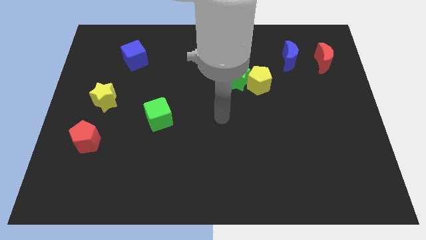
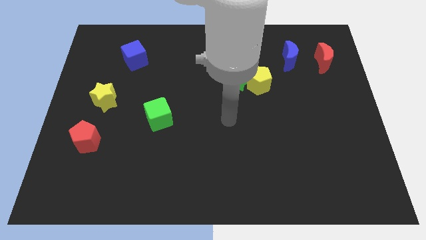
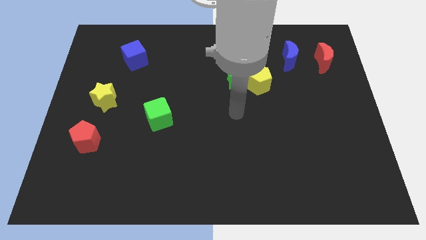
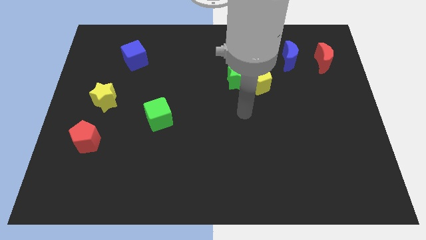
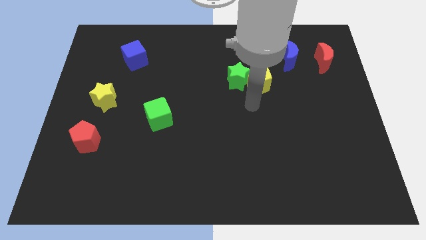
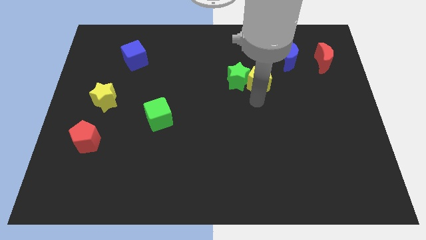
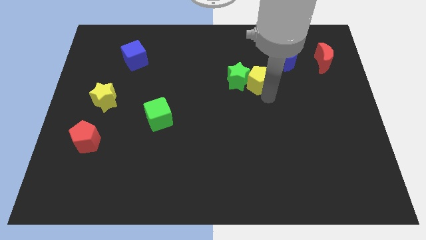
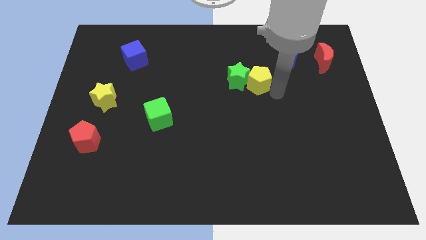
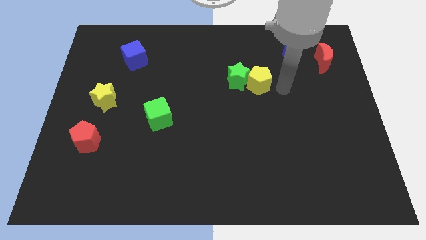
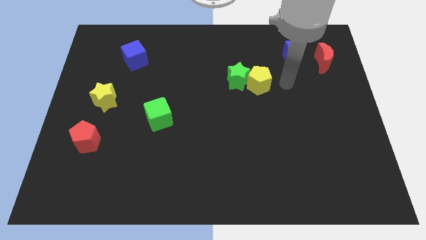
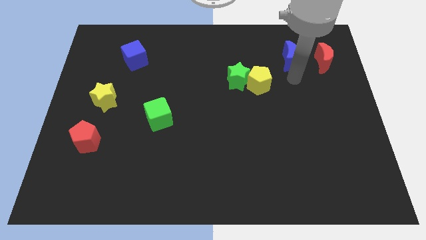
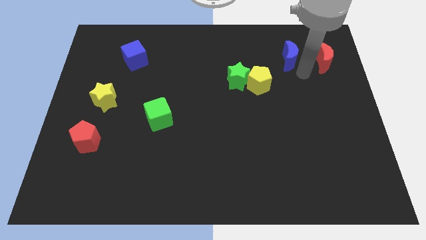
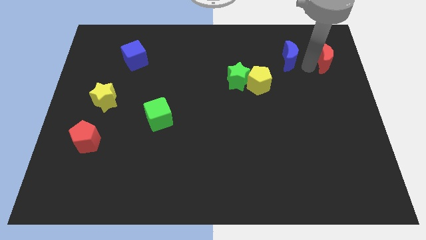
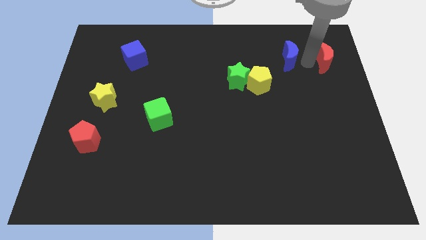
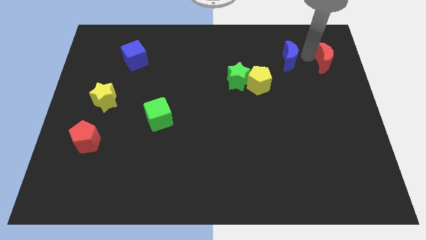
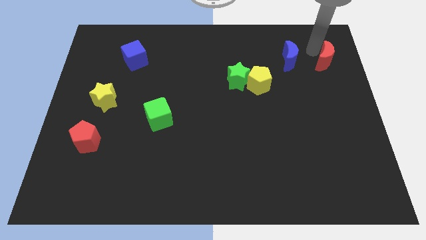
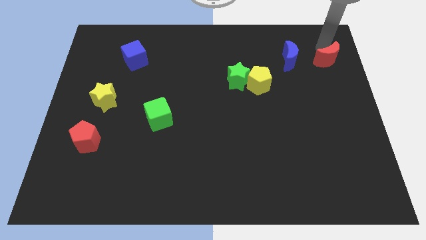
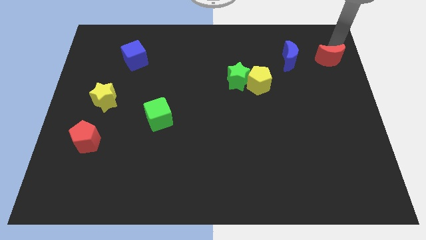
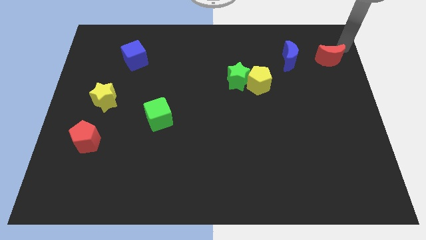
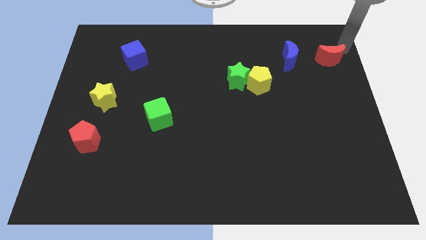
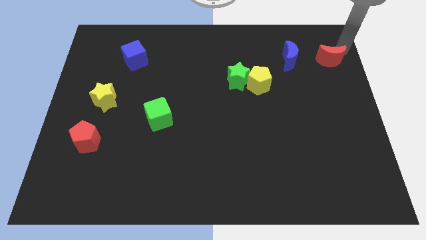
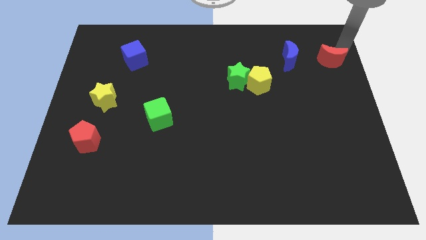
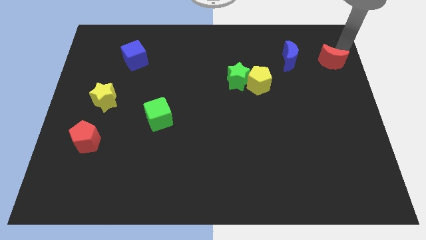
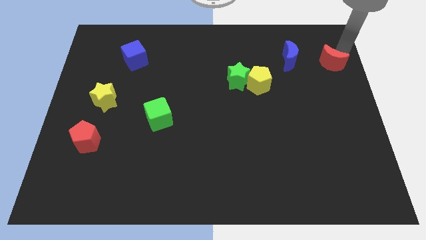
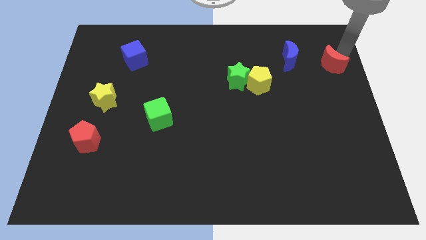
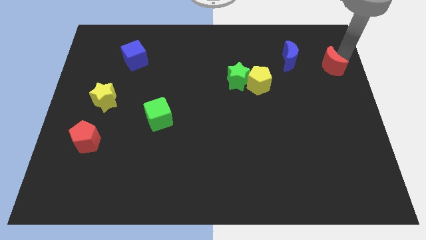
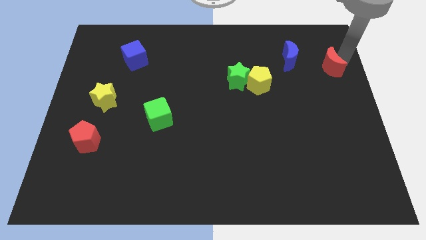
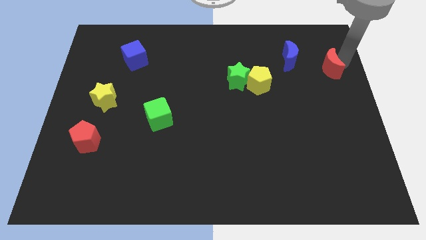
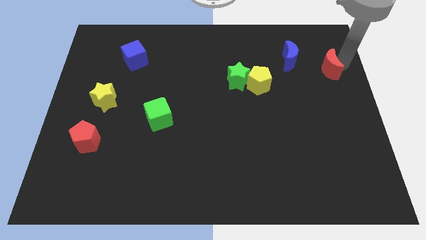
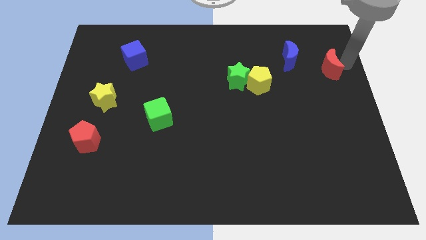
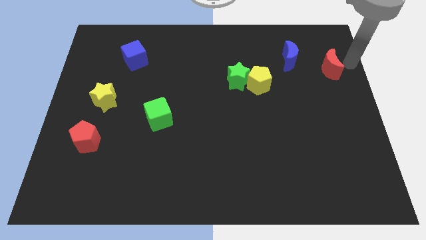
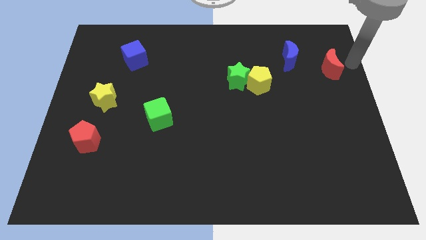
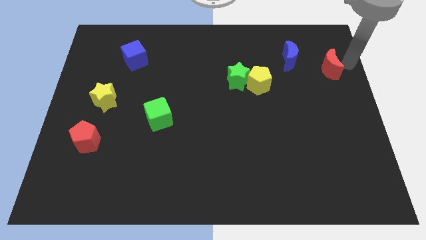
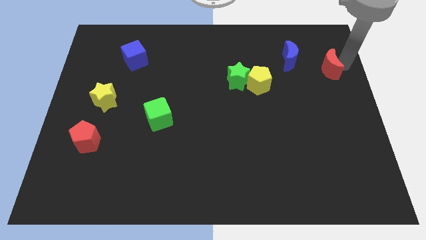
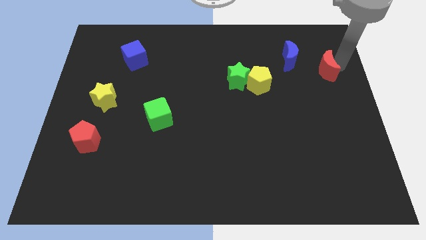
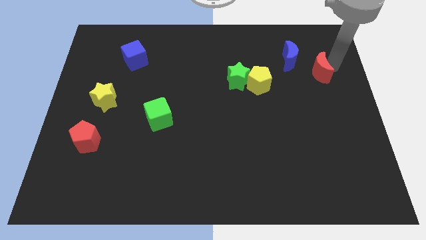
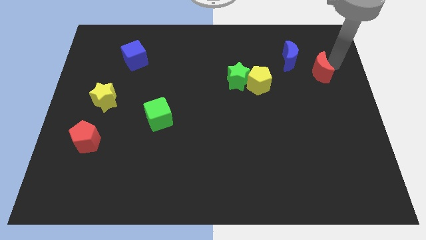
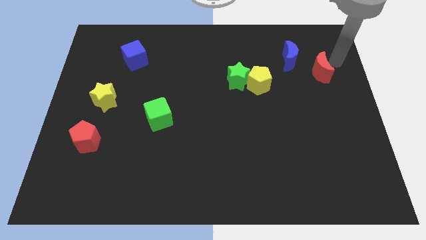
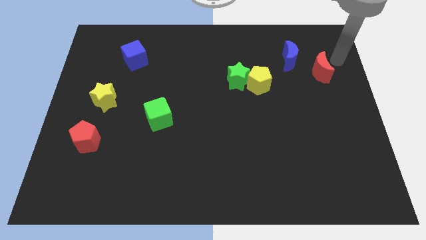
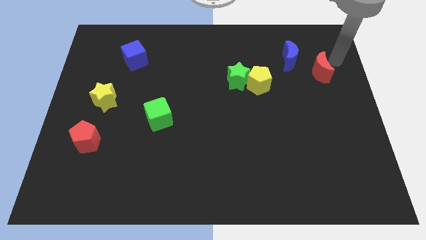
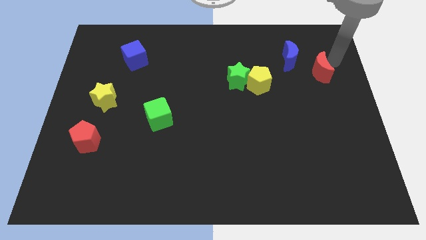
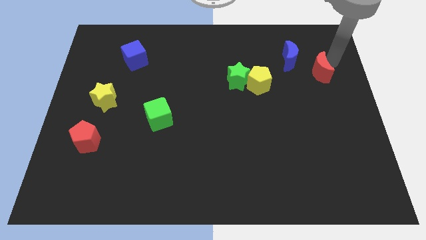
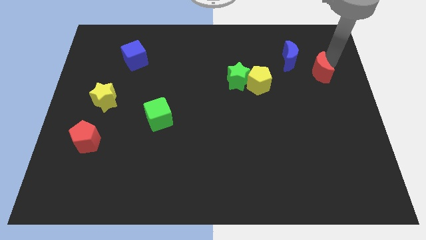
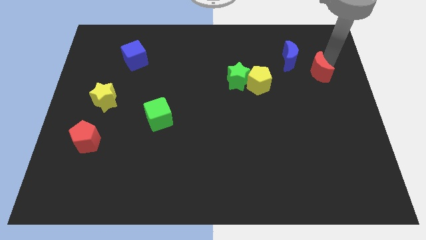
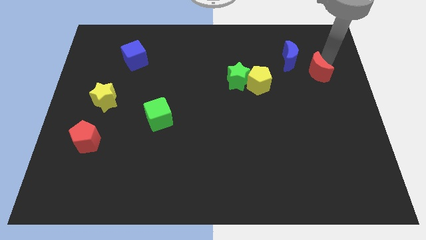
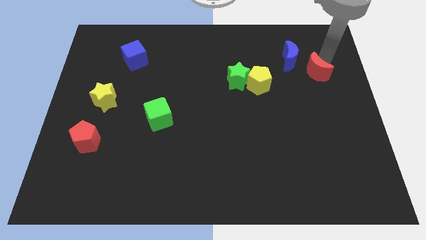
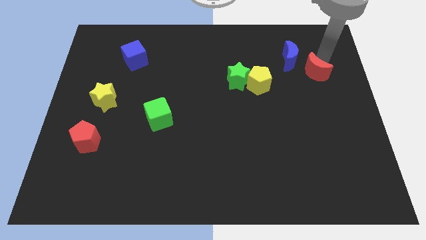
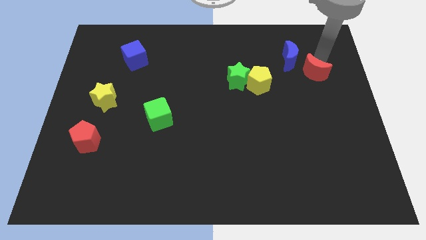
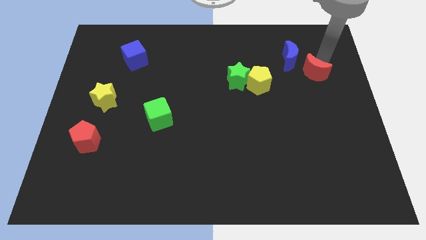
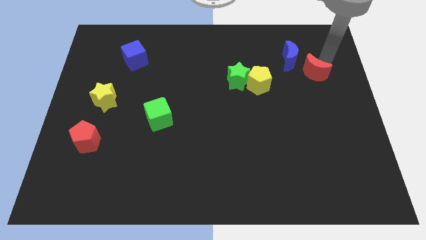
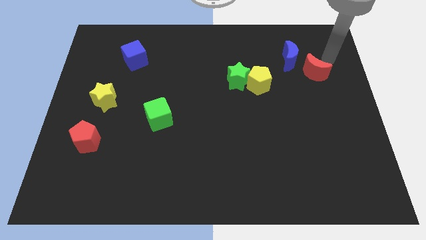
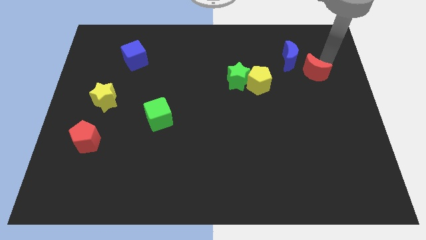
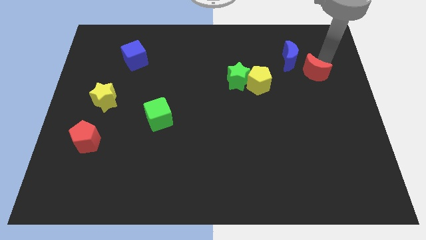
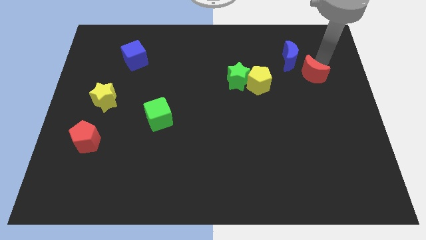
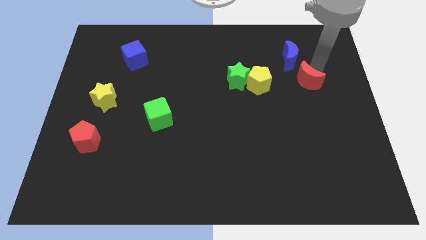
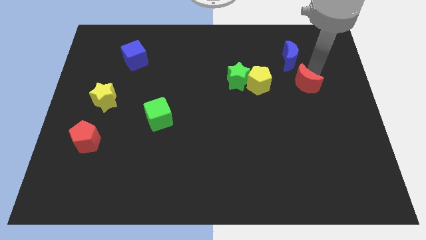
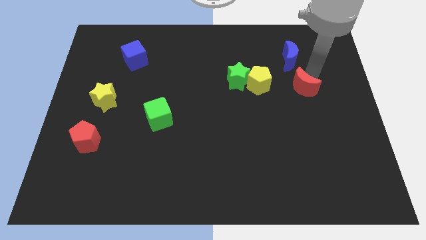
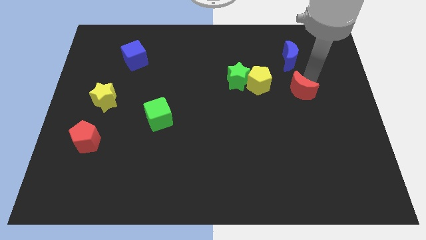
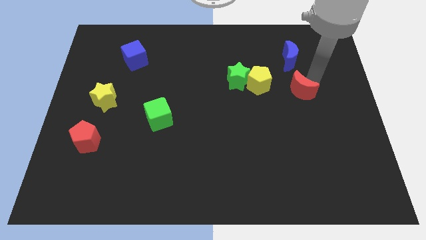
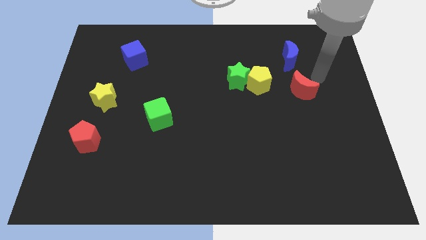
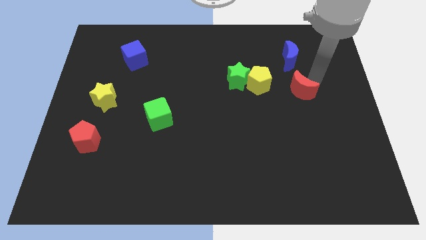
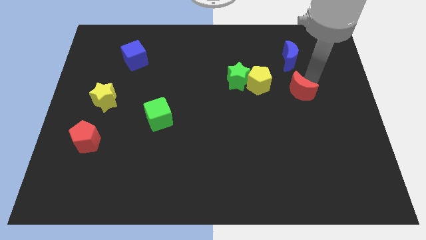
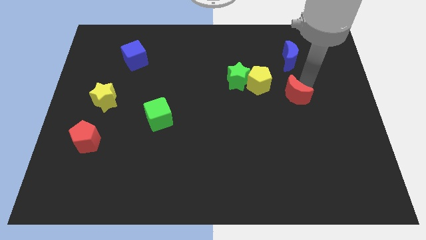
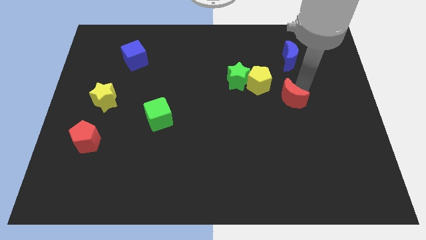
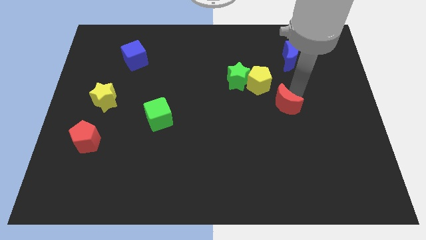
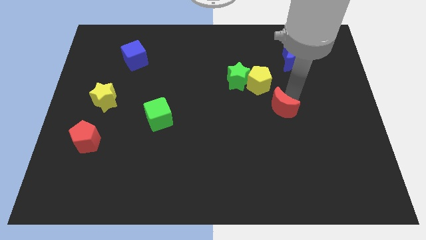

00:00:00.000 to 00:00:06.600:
push the red moon down and then to the left

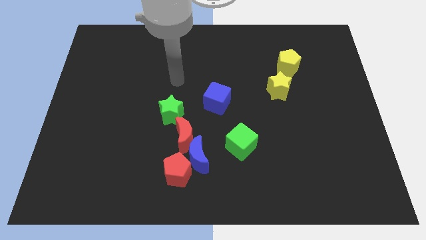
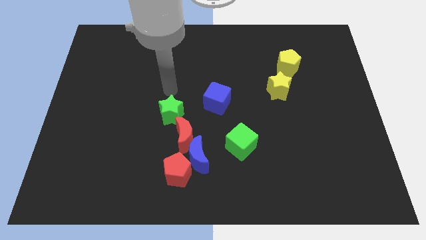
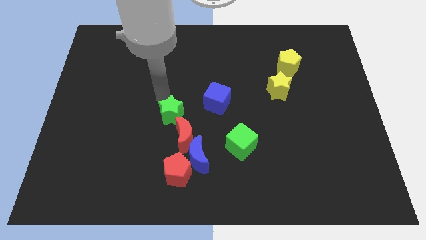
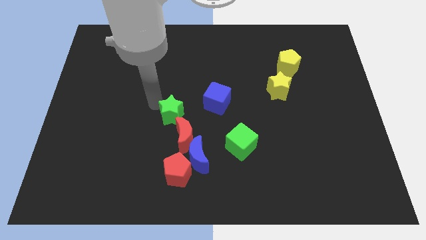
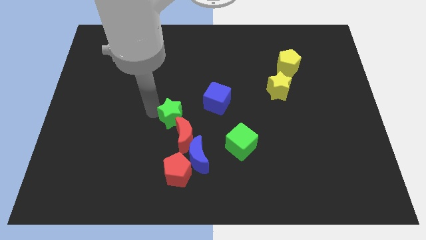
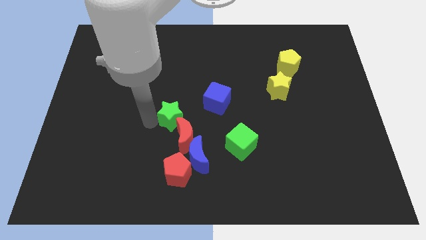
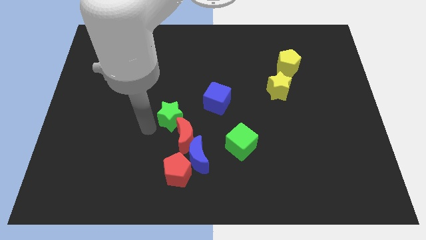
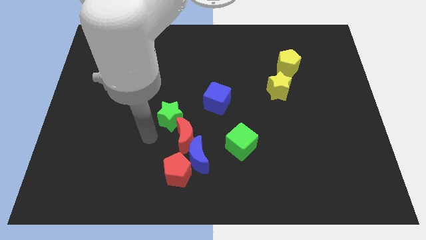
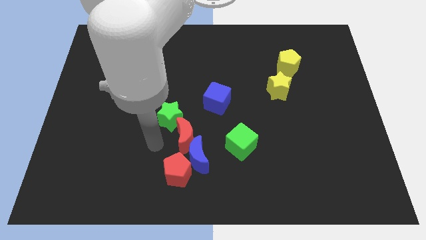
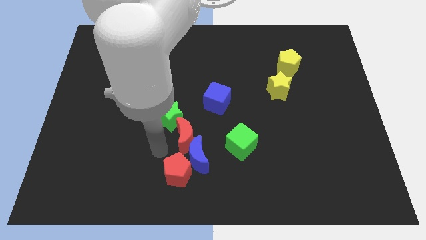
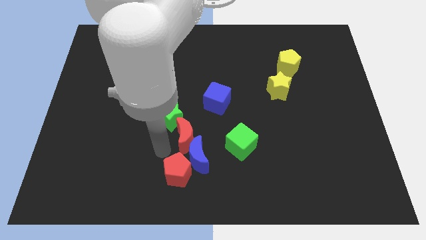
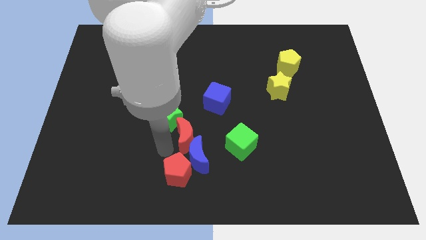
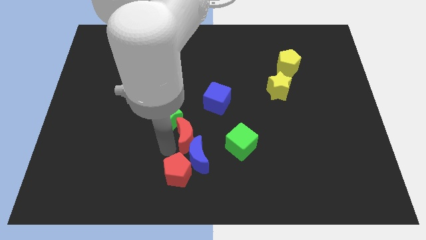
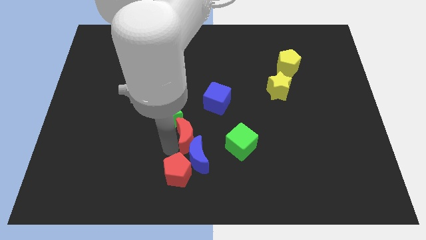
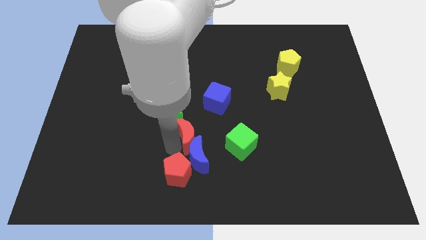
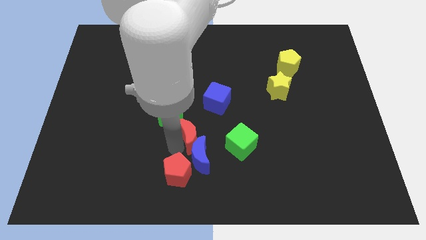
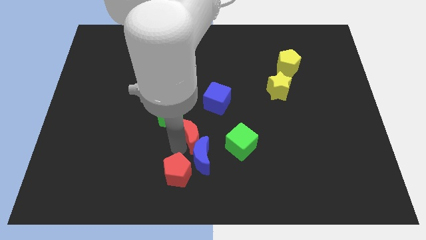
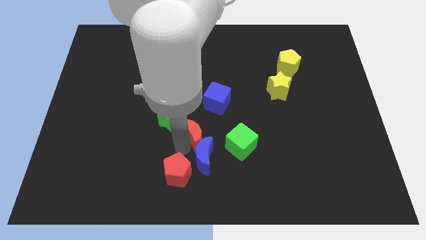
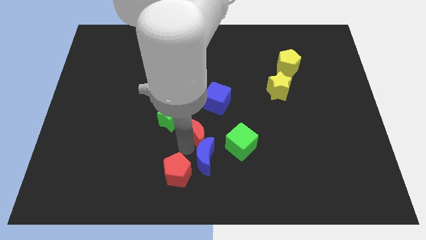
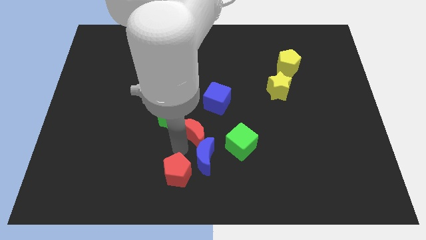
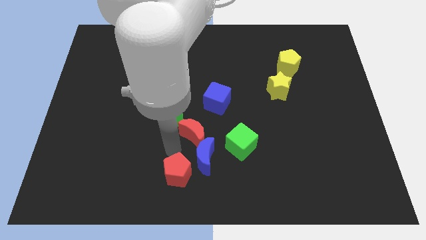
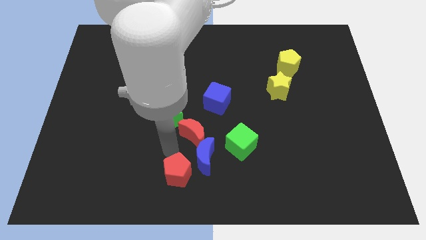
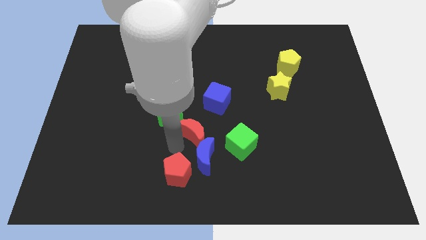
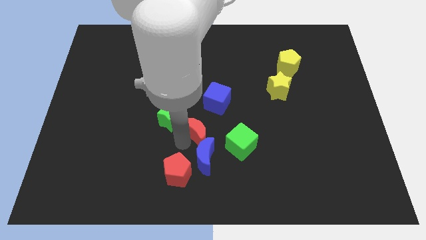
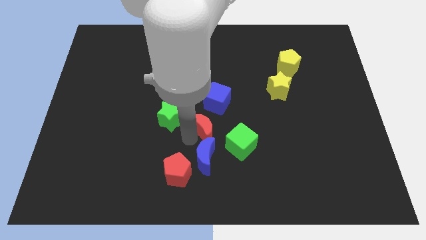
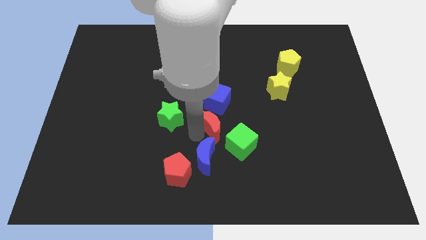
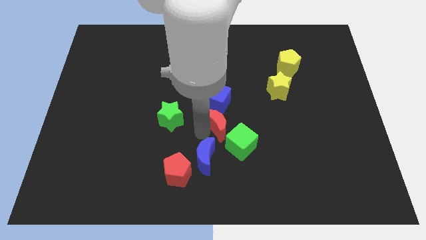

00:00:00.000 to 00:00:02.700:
slightly move the red moon upwards and to the right diagonally
